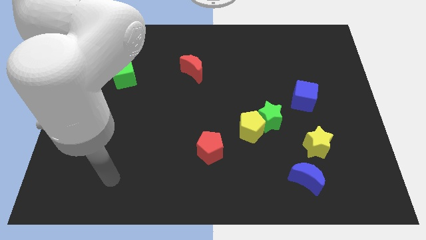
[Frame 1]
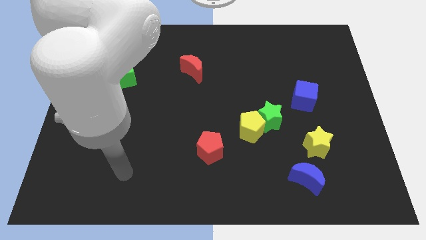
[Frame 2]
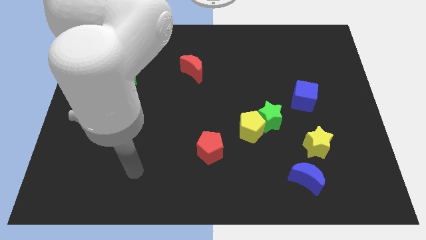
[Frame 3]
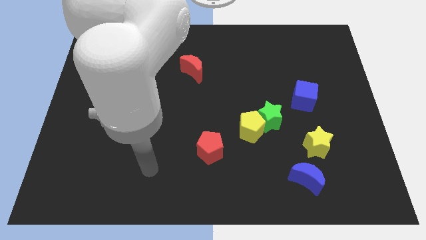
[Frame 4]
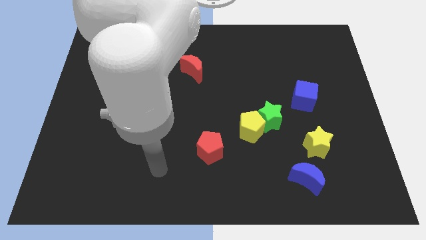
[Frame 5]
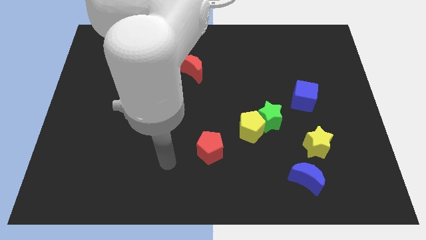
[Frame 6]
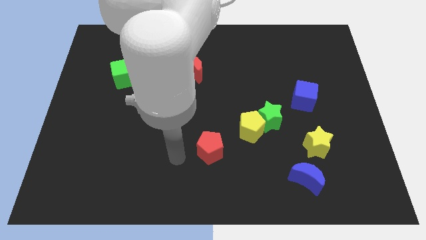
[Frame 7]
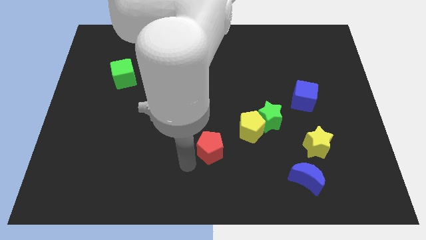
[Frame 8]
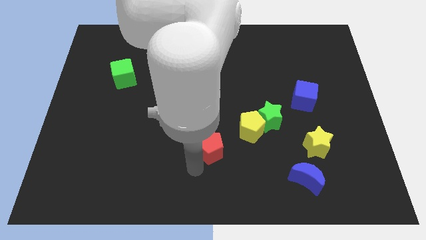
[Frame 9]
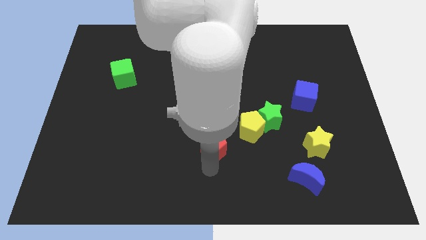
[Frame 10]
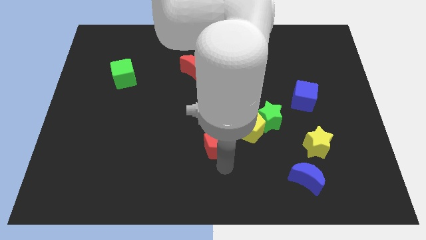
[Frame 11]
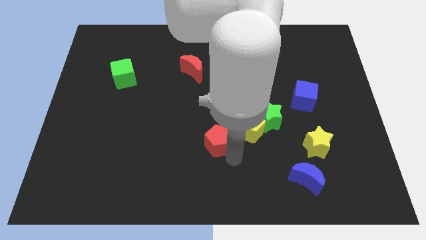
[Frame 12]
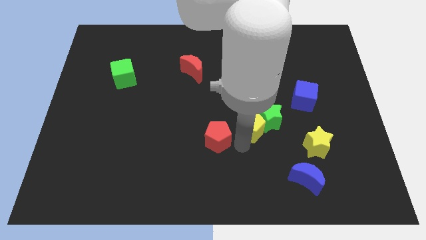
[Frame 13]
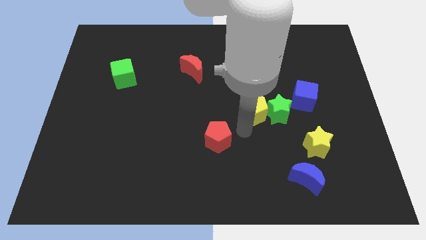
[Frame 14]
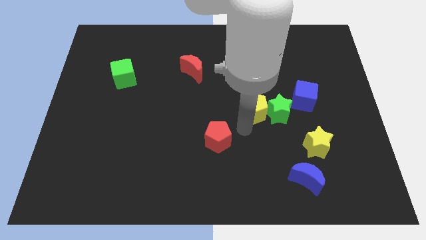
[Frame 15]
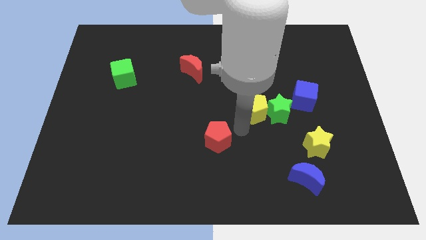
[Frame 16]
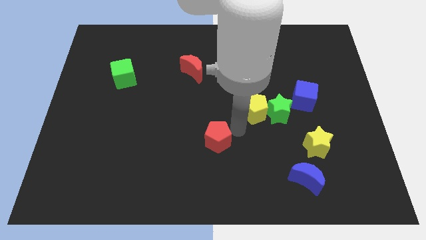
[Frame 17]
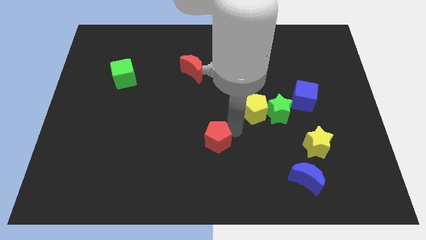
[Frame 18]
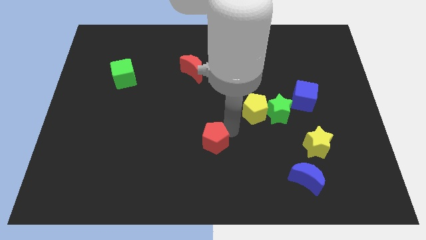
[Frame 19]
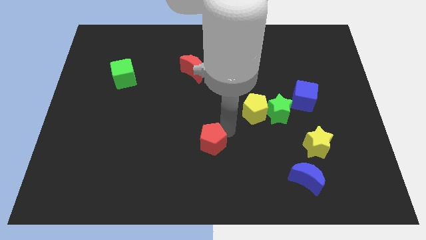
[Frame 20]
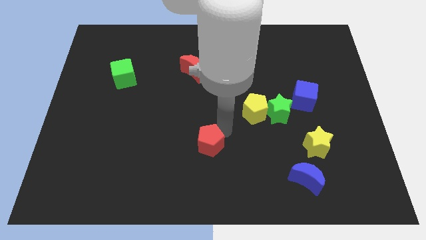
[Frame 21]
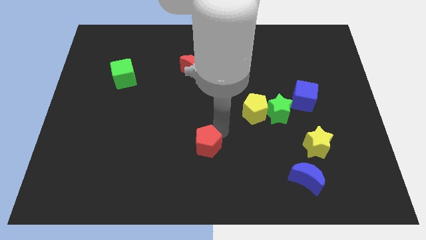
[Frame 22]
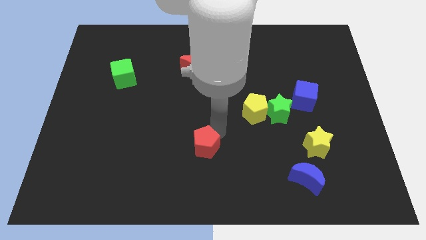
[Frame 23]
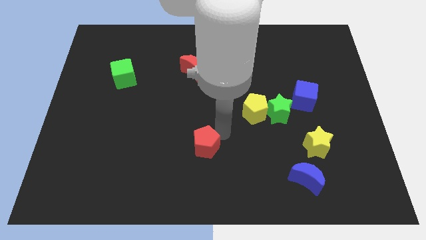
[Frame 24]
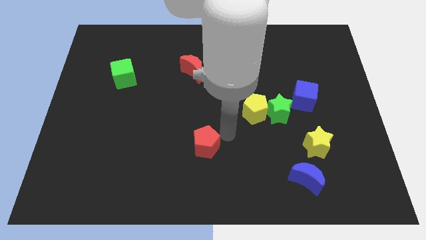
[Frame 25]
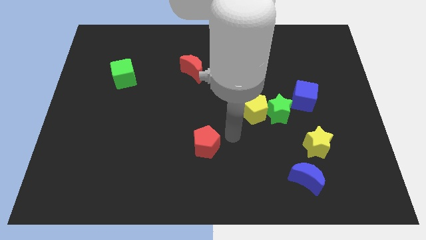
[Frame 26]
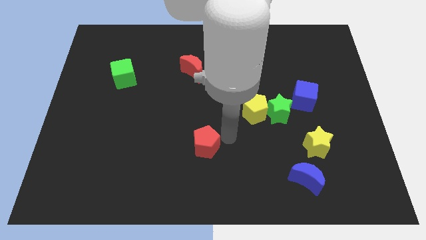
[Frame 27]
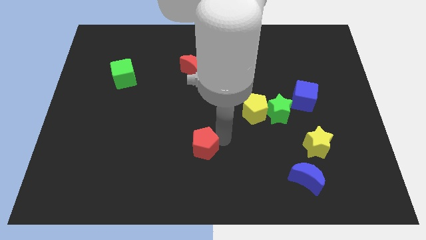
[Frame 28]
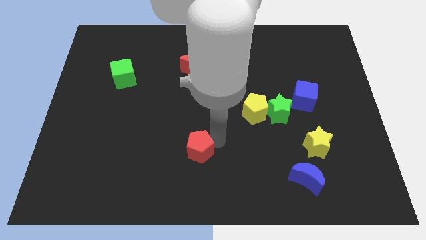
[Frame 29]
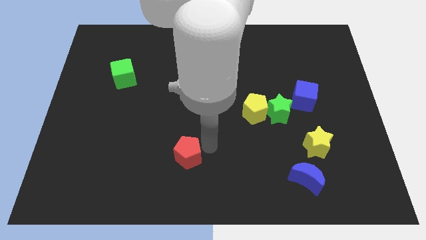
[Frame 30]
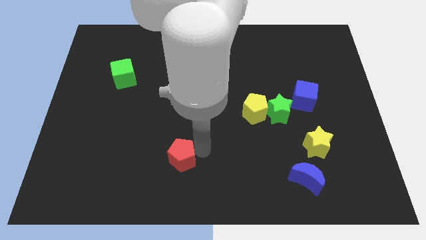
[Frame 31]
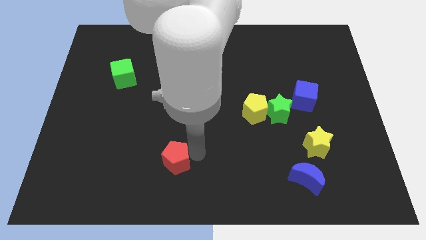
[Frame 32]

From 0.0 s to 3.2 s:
push the red pentagon somewhat left

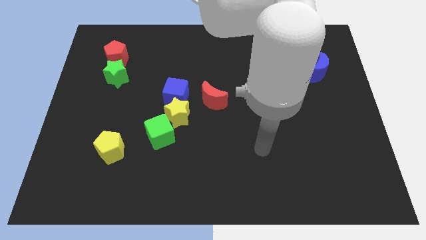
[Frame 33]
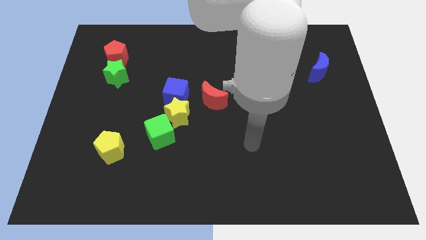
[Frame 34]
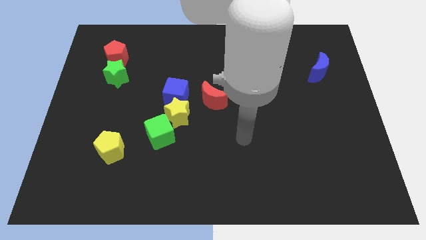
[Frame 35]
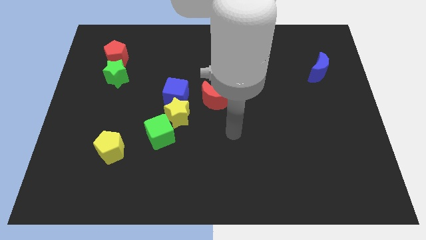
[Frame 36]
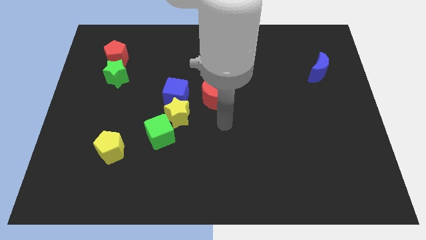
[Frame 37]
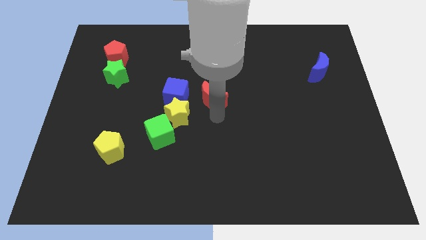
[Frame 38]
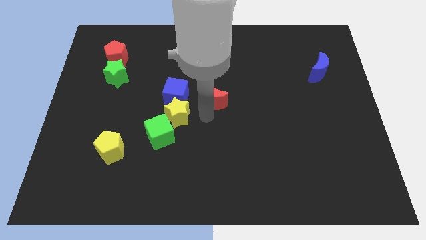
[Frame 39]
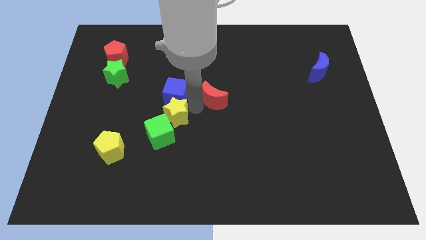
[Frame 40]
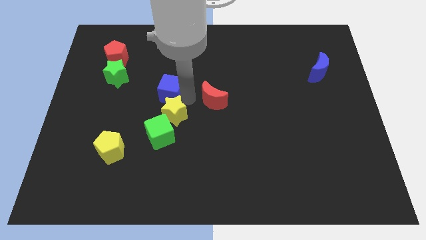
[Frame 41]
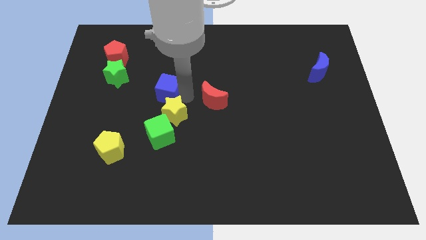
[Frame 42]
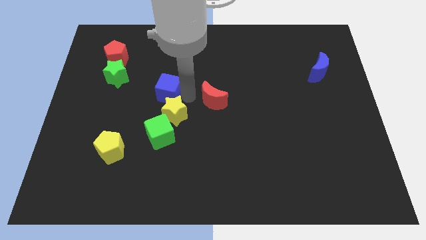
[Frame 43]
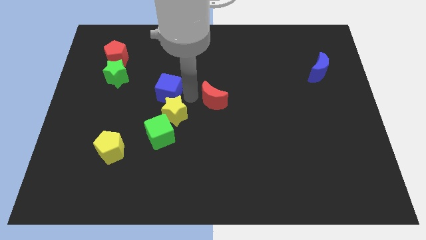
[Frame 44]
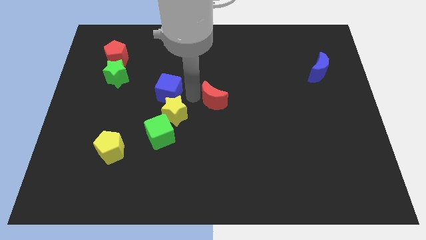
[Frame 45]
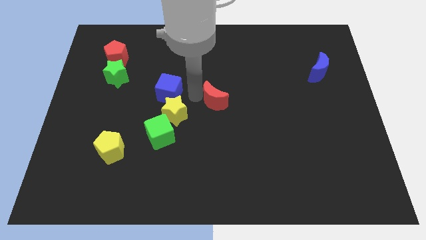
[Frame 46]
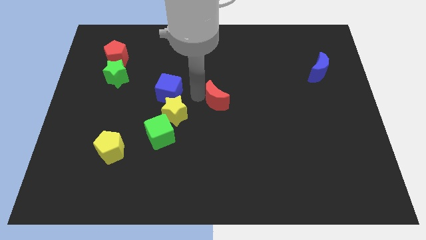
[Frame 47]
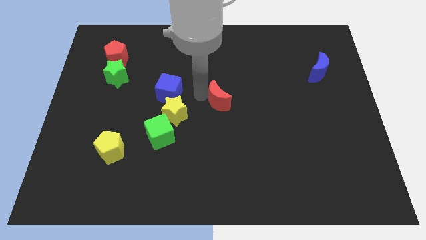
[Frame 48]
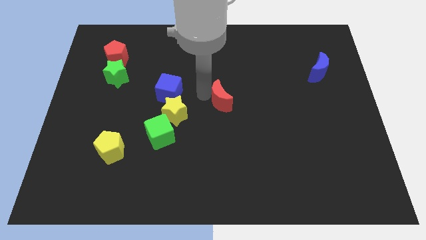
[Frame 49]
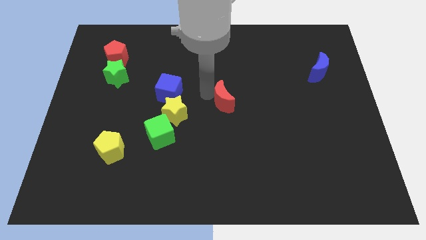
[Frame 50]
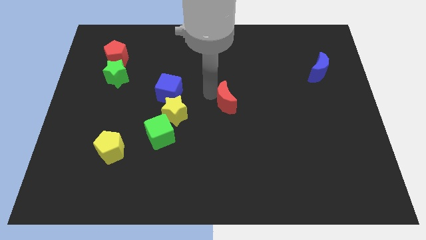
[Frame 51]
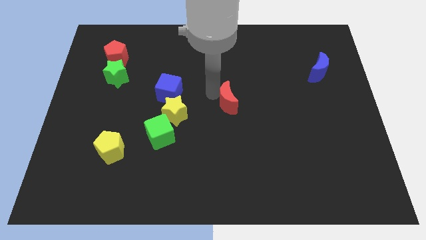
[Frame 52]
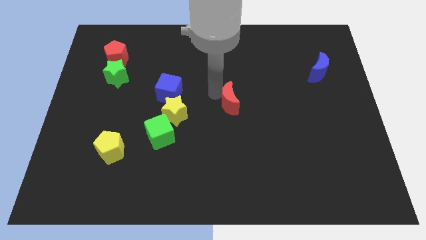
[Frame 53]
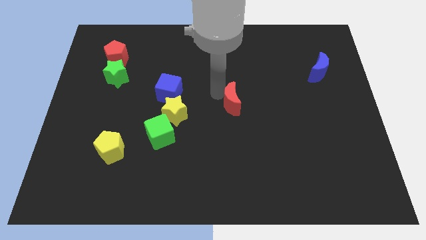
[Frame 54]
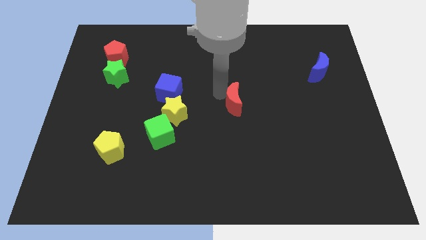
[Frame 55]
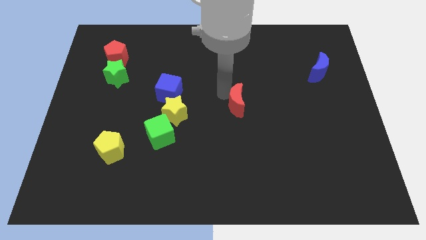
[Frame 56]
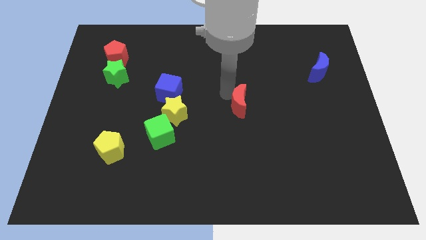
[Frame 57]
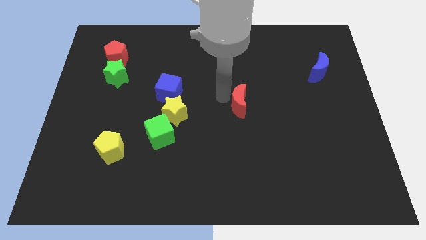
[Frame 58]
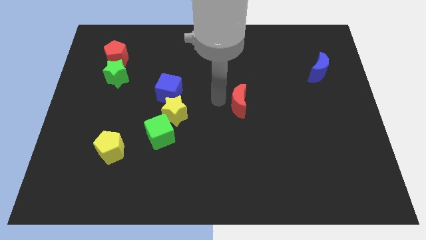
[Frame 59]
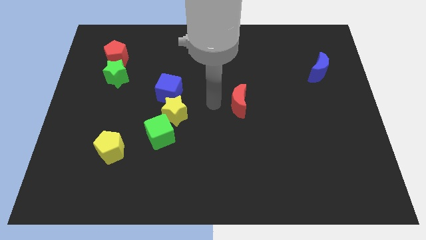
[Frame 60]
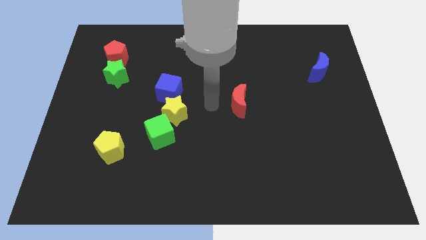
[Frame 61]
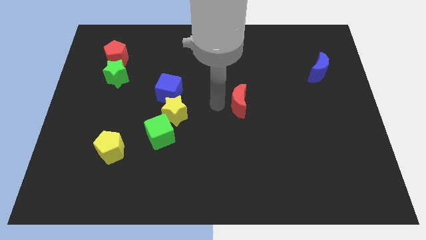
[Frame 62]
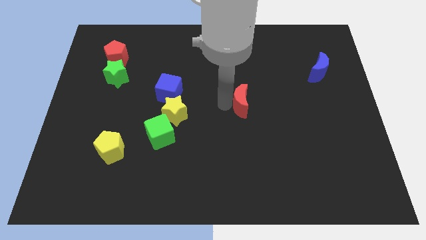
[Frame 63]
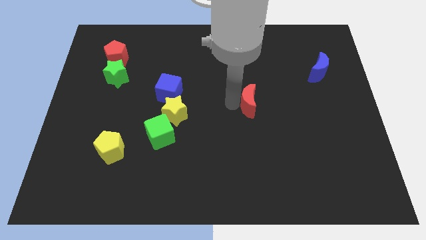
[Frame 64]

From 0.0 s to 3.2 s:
slightly move the red moon to the right

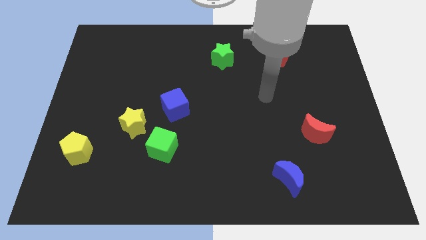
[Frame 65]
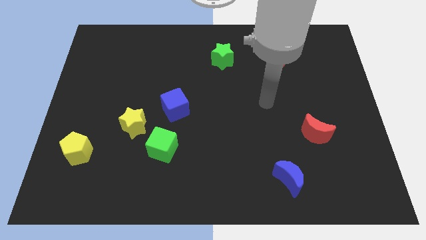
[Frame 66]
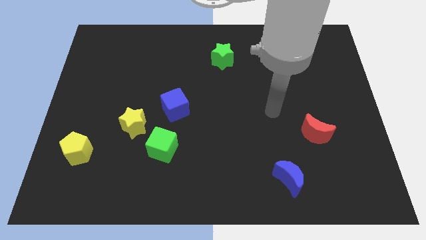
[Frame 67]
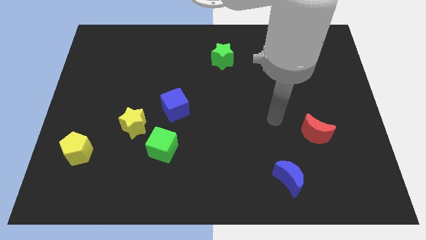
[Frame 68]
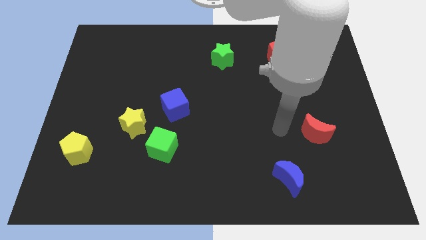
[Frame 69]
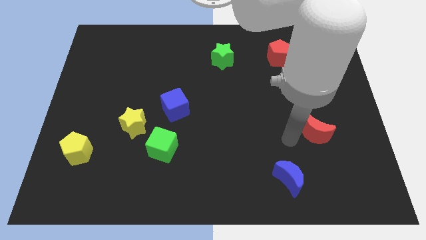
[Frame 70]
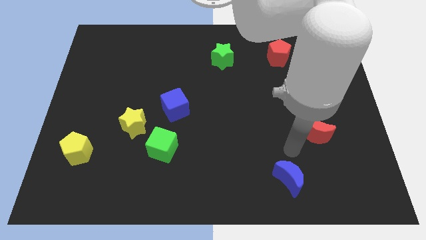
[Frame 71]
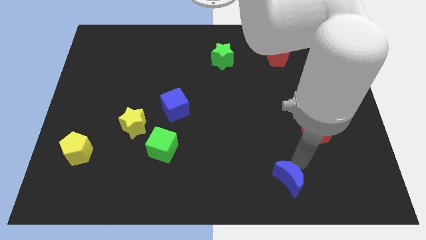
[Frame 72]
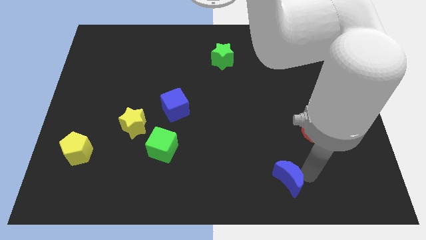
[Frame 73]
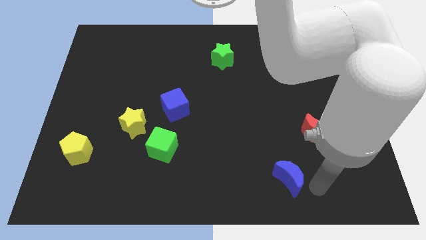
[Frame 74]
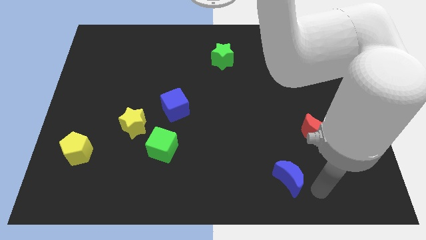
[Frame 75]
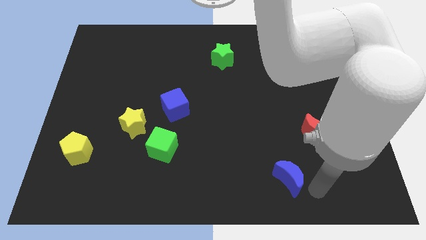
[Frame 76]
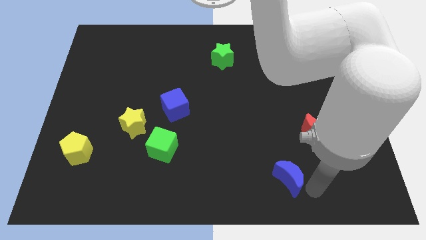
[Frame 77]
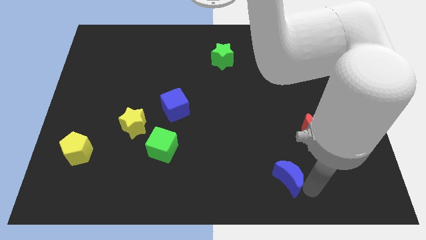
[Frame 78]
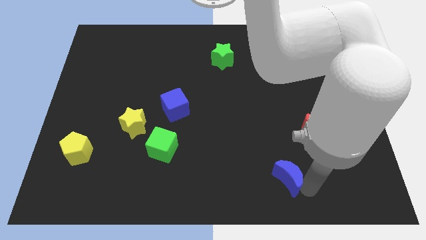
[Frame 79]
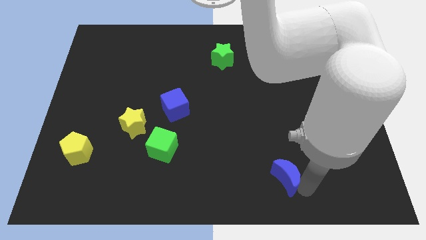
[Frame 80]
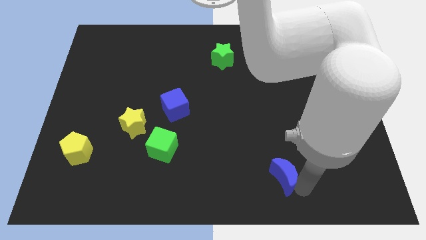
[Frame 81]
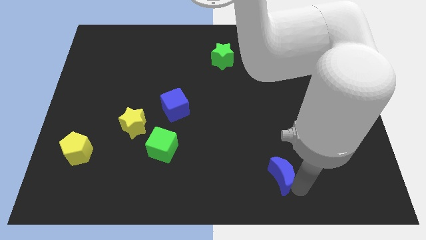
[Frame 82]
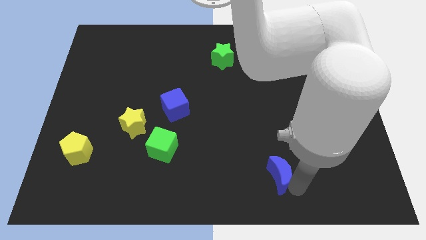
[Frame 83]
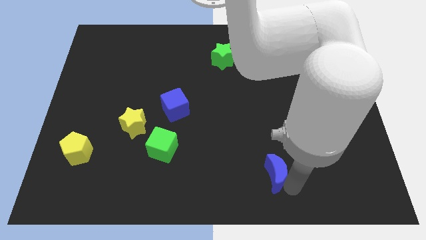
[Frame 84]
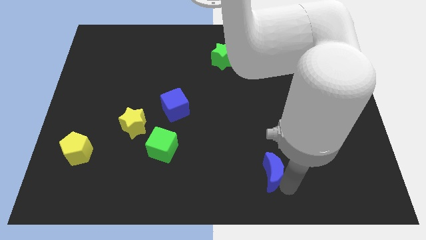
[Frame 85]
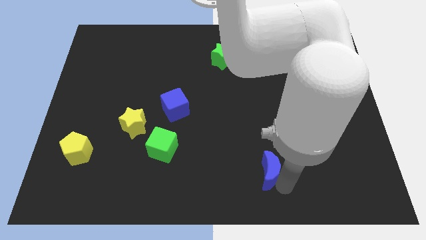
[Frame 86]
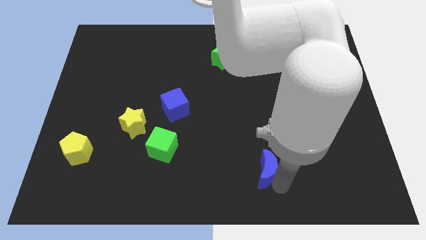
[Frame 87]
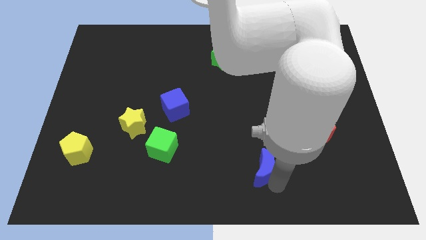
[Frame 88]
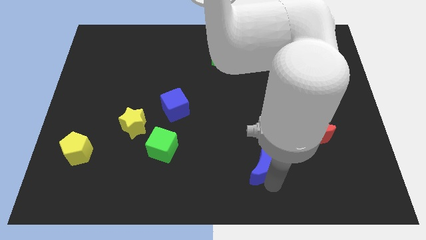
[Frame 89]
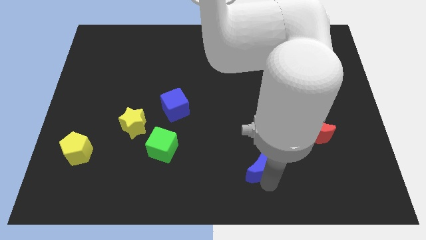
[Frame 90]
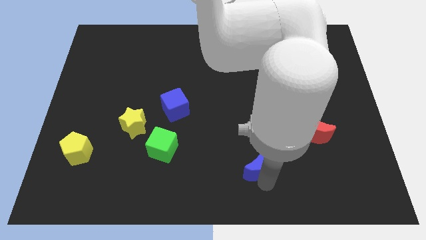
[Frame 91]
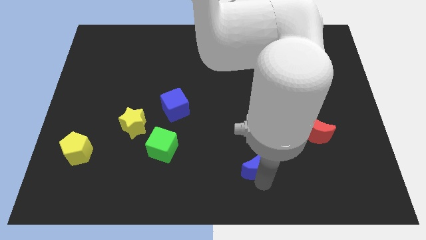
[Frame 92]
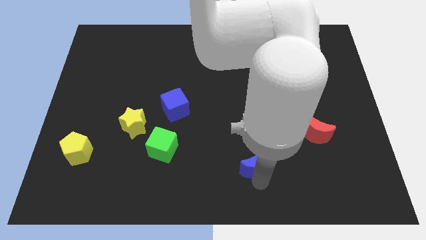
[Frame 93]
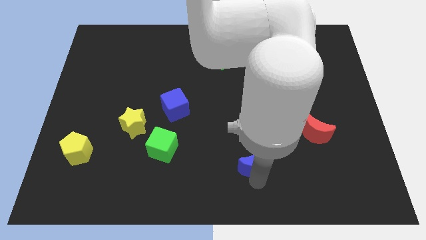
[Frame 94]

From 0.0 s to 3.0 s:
slightly move the blue moon diagonally upwards and to the left
